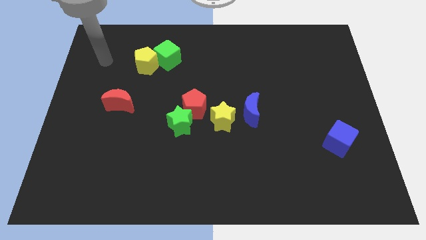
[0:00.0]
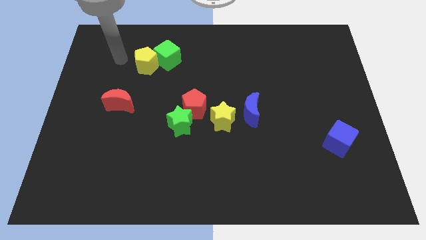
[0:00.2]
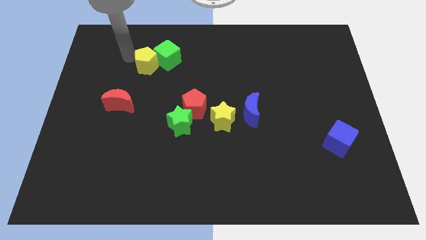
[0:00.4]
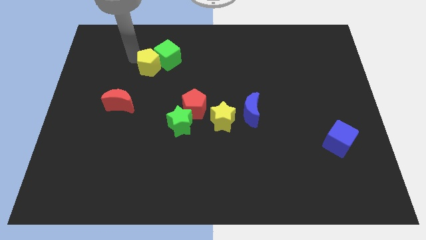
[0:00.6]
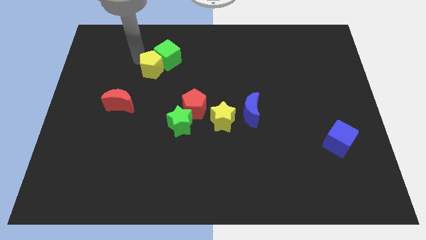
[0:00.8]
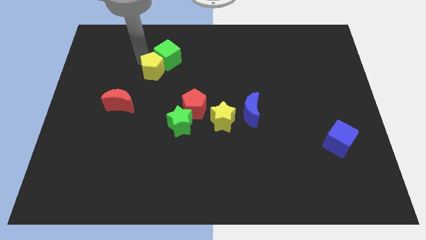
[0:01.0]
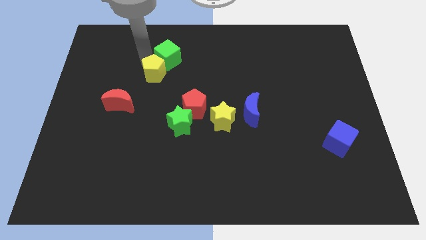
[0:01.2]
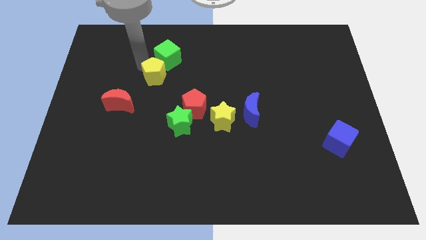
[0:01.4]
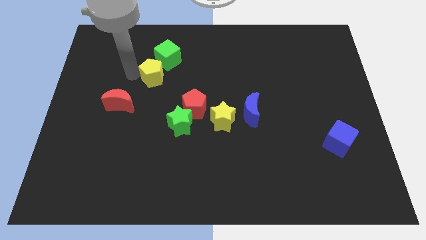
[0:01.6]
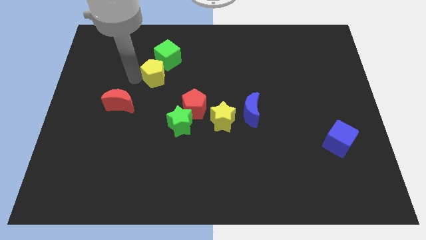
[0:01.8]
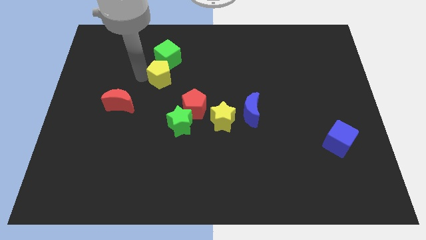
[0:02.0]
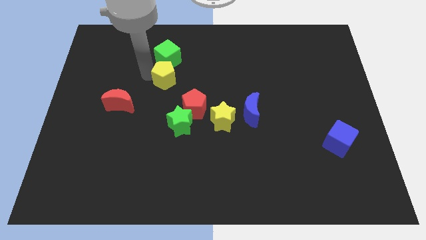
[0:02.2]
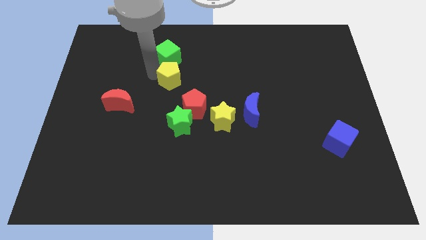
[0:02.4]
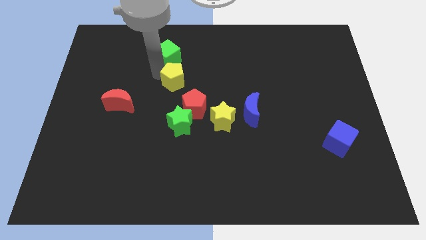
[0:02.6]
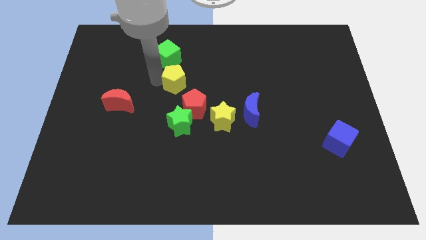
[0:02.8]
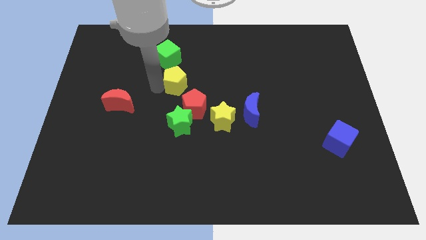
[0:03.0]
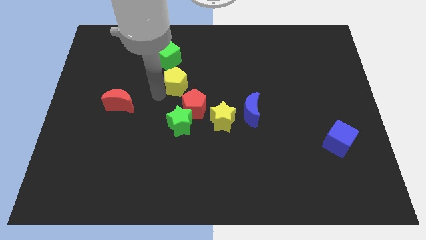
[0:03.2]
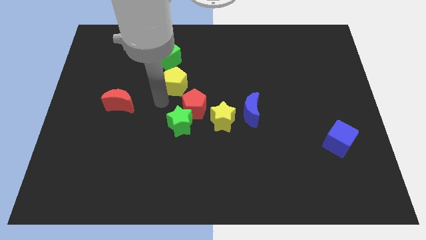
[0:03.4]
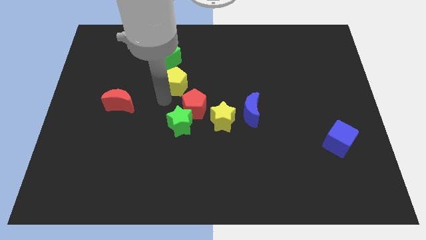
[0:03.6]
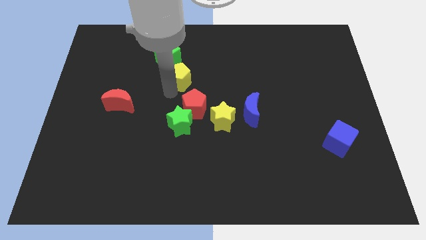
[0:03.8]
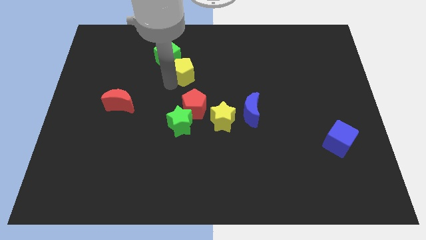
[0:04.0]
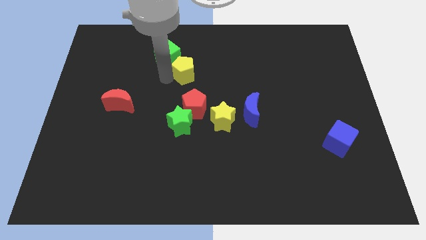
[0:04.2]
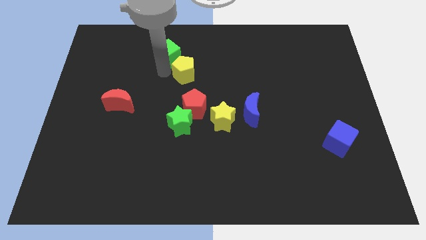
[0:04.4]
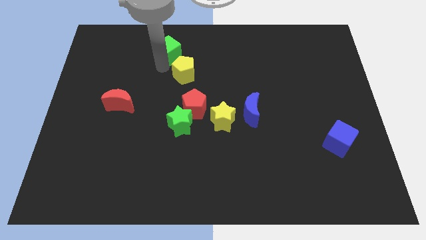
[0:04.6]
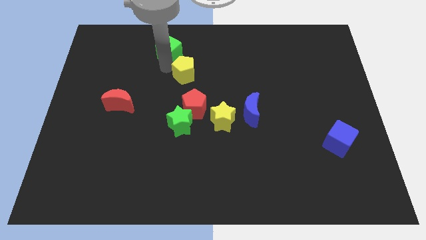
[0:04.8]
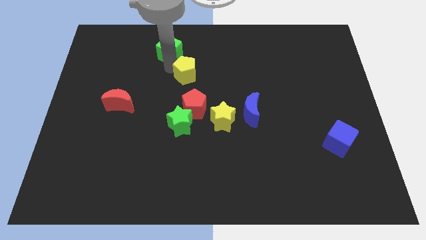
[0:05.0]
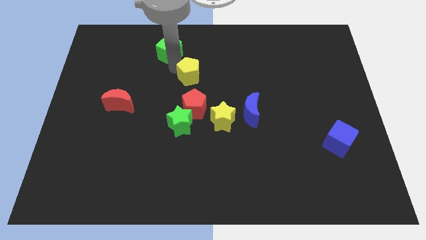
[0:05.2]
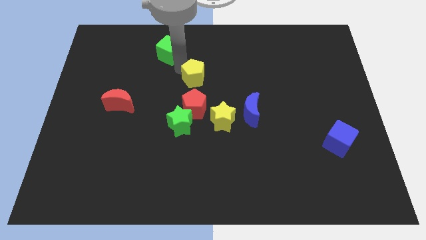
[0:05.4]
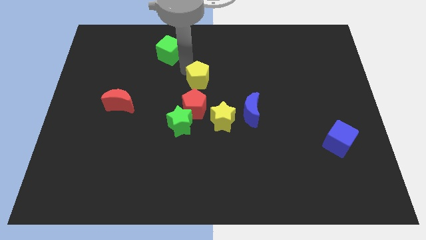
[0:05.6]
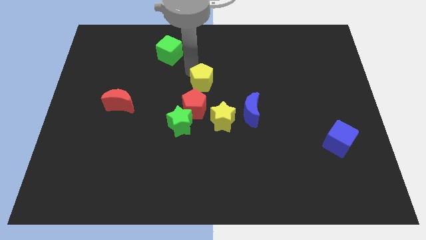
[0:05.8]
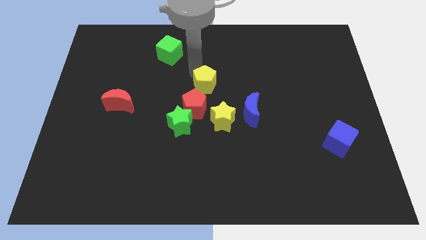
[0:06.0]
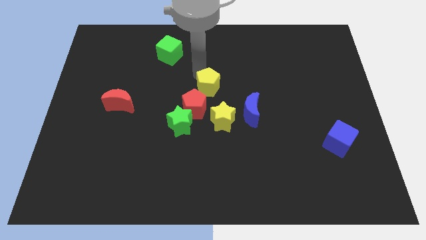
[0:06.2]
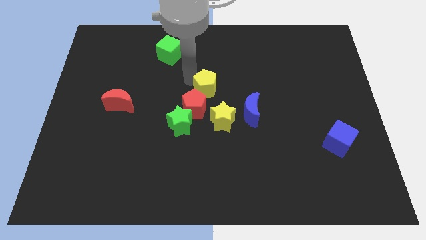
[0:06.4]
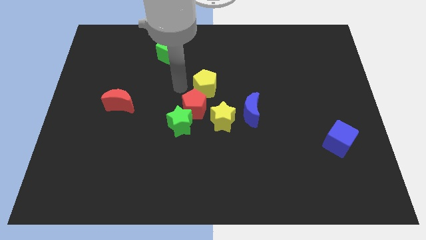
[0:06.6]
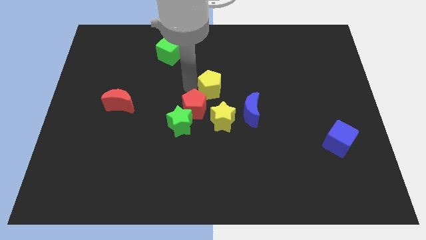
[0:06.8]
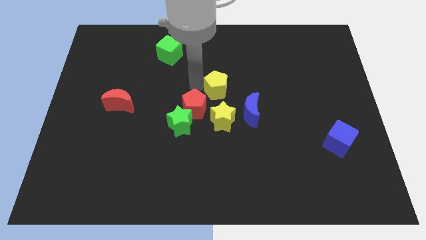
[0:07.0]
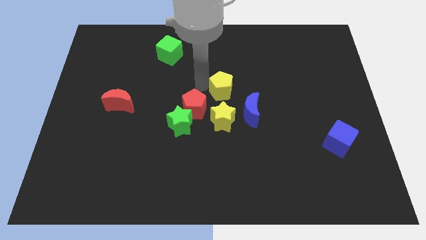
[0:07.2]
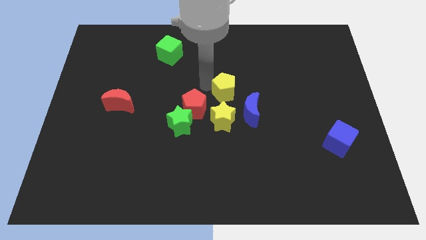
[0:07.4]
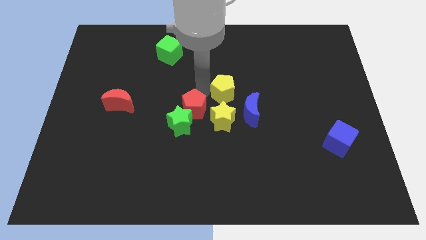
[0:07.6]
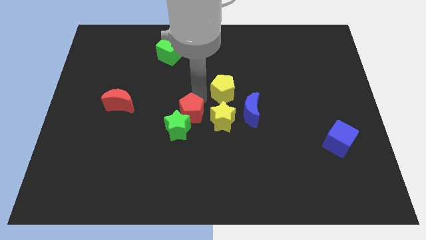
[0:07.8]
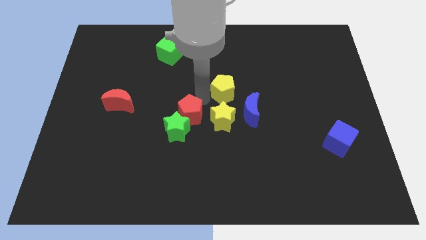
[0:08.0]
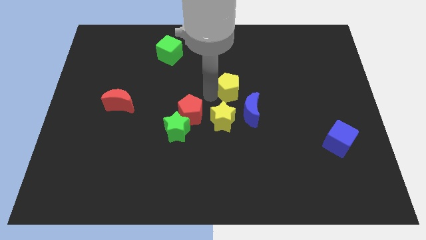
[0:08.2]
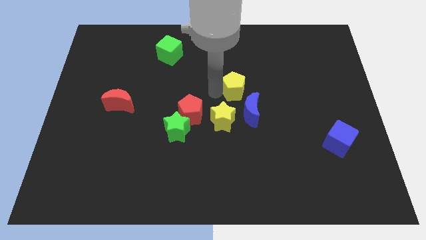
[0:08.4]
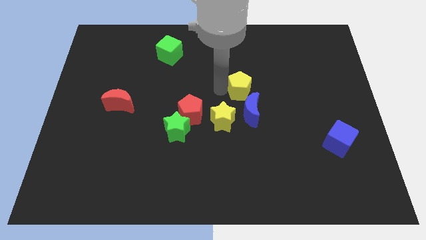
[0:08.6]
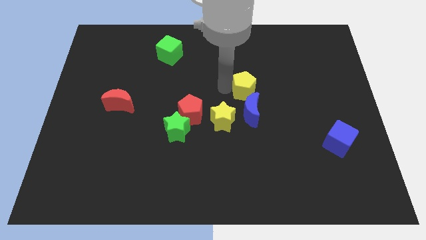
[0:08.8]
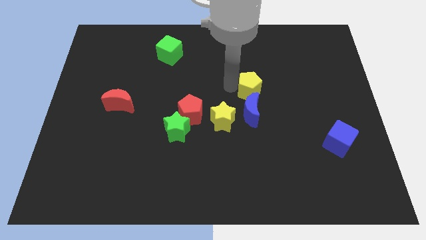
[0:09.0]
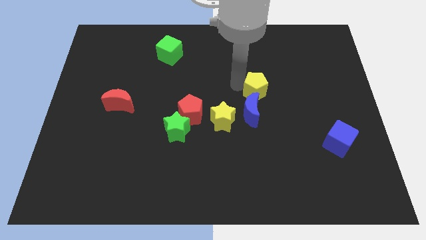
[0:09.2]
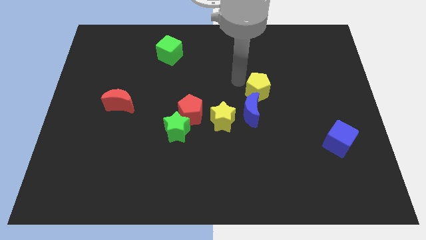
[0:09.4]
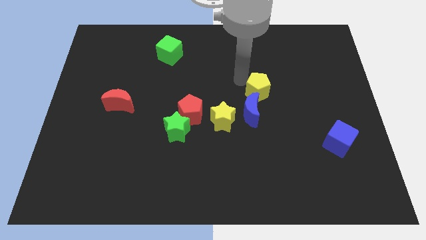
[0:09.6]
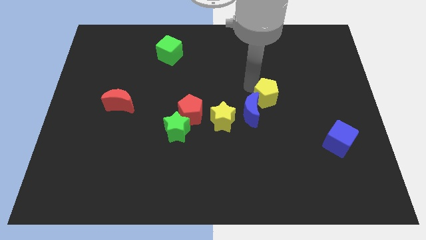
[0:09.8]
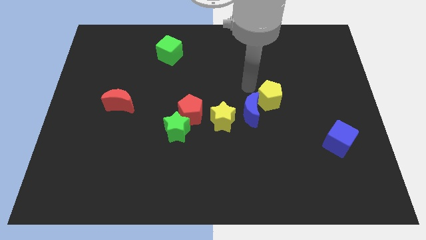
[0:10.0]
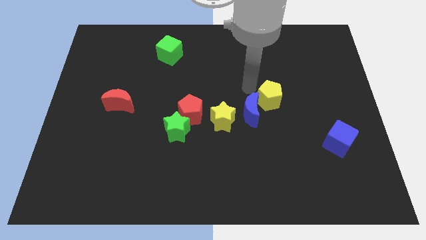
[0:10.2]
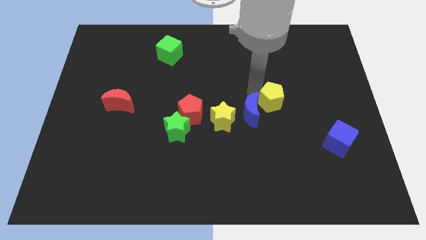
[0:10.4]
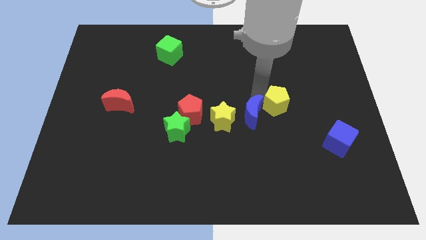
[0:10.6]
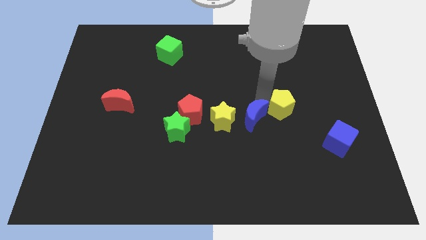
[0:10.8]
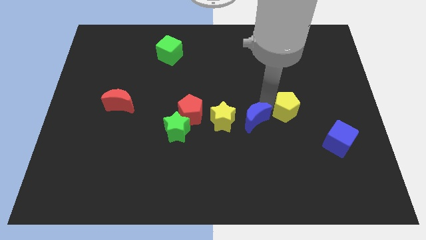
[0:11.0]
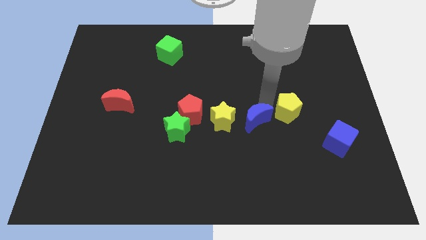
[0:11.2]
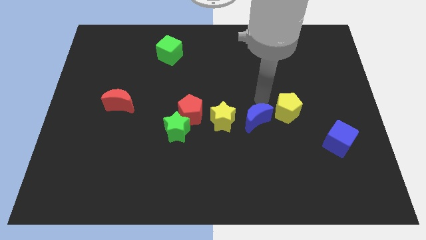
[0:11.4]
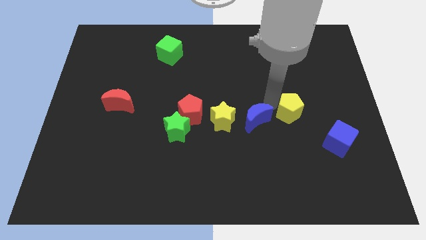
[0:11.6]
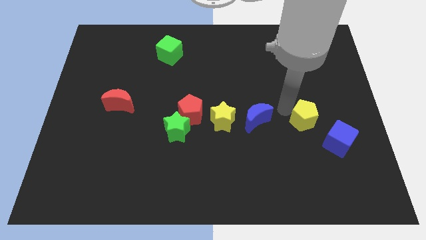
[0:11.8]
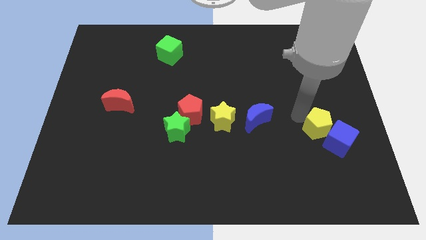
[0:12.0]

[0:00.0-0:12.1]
move the yellow pentagon next to the blue cube

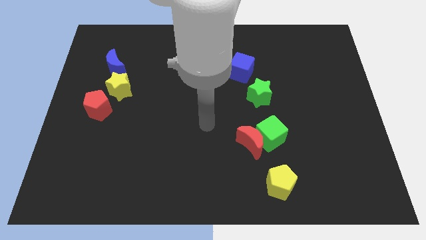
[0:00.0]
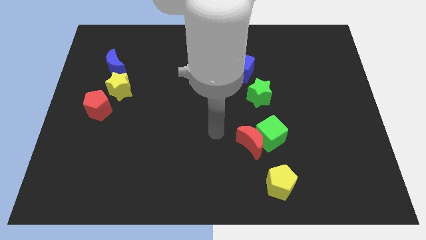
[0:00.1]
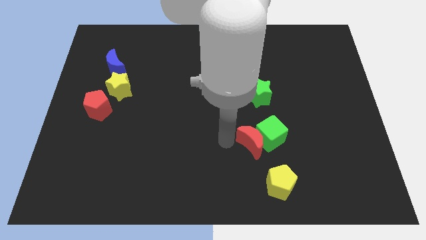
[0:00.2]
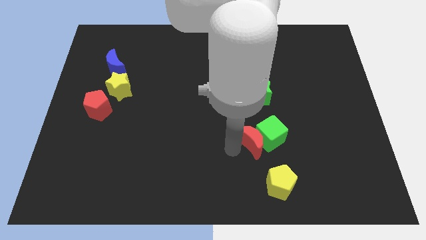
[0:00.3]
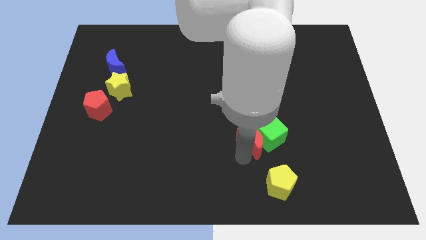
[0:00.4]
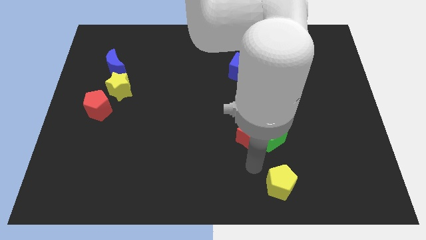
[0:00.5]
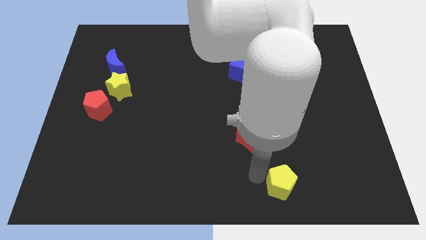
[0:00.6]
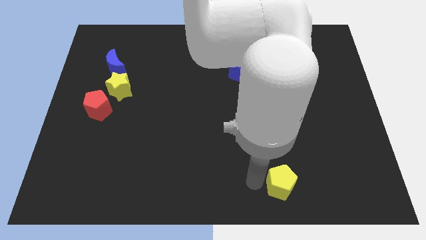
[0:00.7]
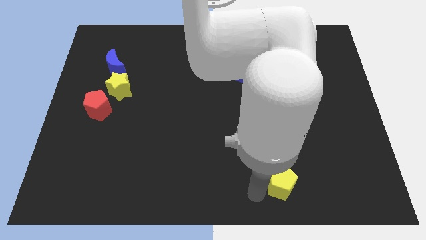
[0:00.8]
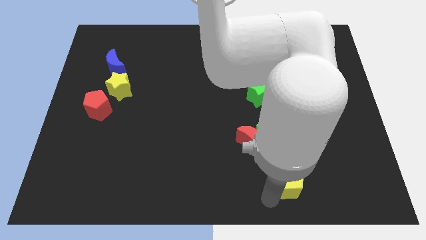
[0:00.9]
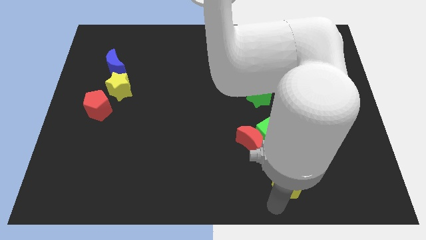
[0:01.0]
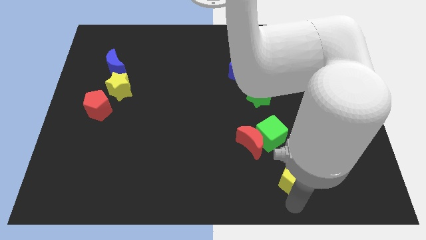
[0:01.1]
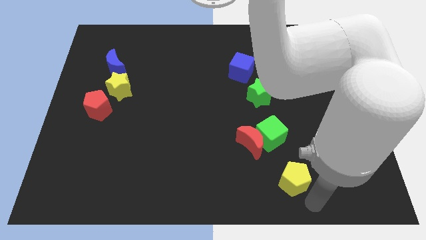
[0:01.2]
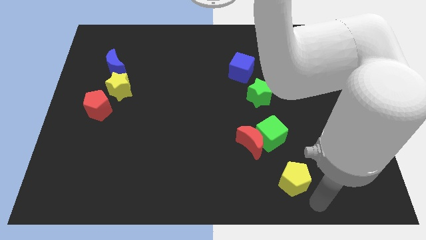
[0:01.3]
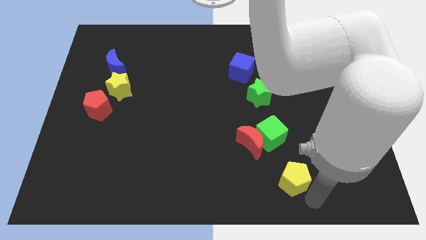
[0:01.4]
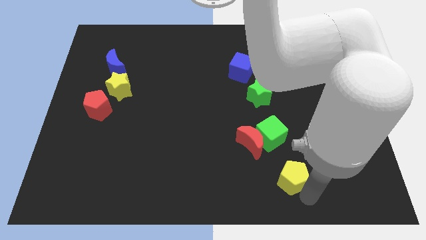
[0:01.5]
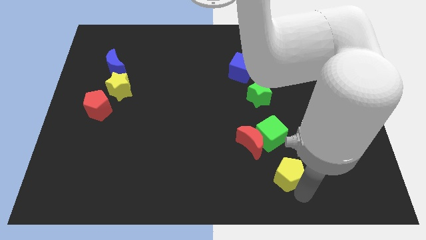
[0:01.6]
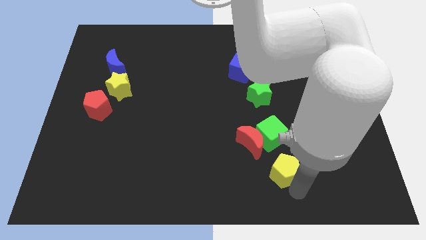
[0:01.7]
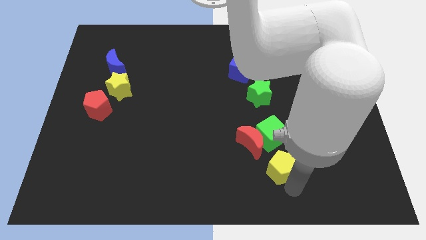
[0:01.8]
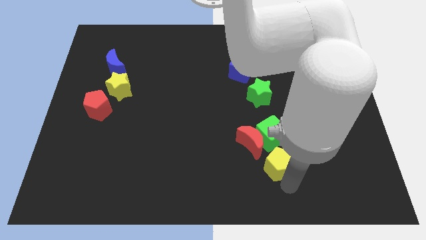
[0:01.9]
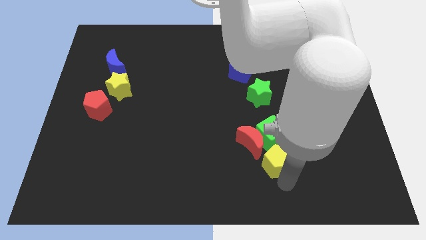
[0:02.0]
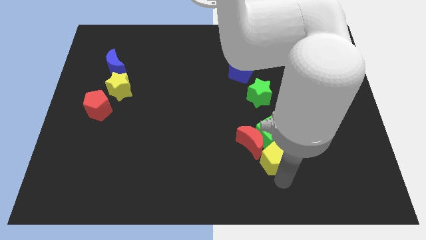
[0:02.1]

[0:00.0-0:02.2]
put the yellow pentagon close to the red moon
